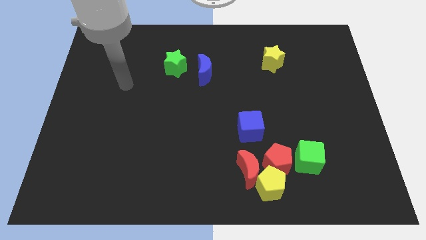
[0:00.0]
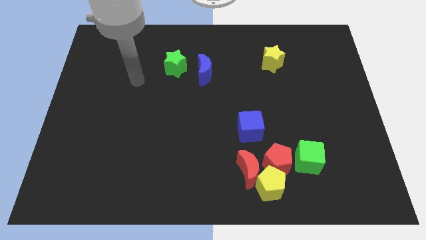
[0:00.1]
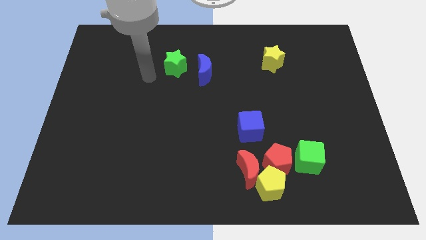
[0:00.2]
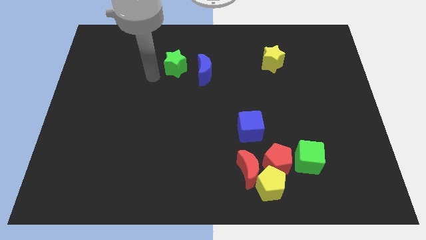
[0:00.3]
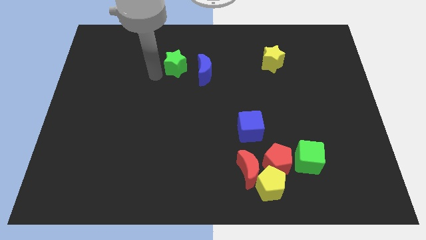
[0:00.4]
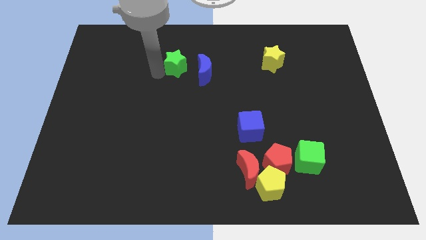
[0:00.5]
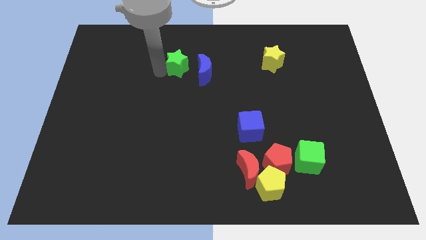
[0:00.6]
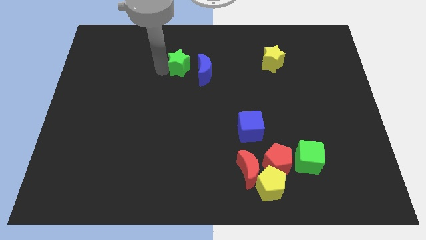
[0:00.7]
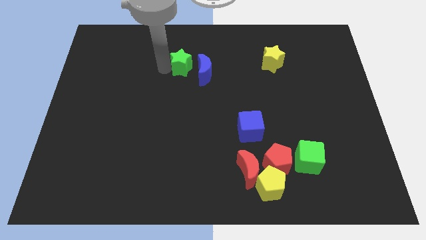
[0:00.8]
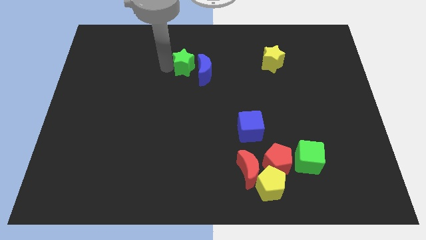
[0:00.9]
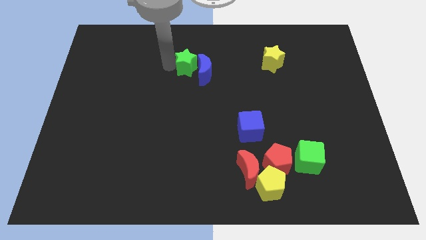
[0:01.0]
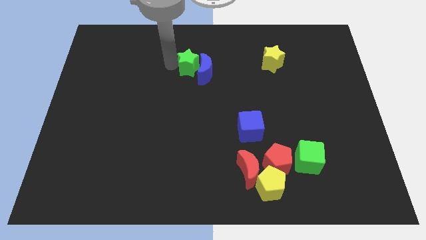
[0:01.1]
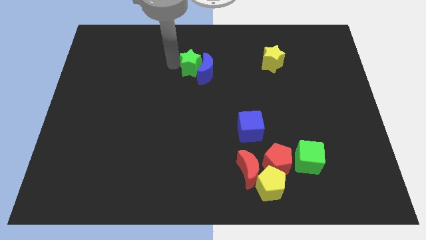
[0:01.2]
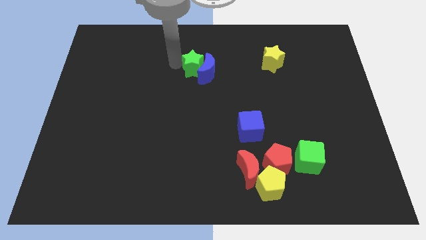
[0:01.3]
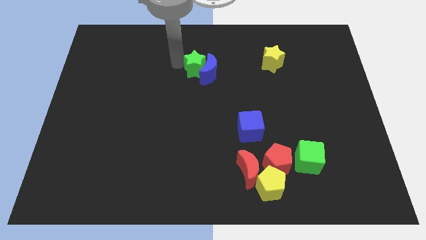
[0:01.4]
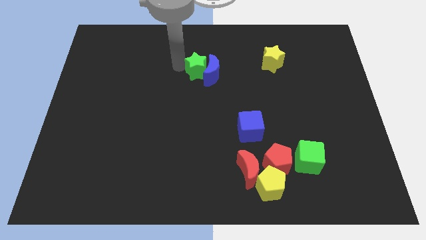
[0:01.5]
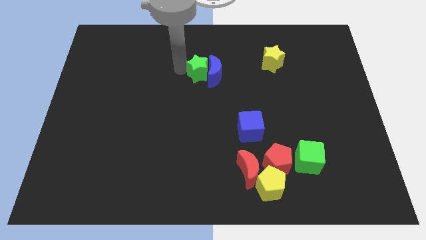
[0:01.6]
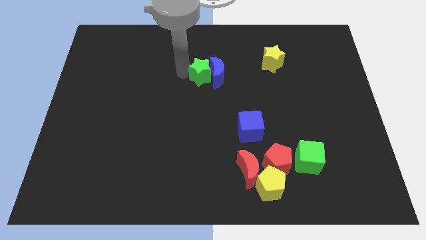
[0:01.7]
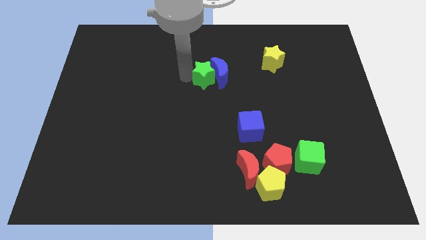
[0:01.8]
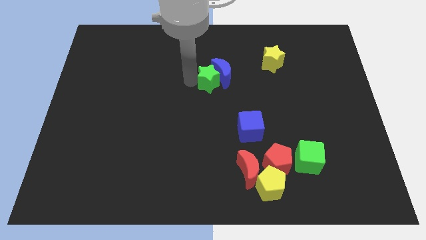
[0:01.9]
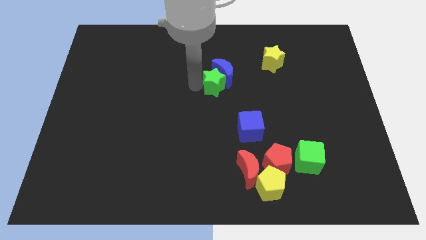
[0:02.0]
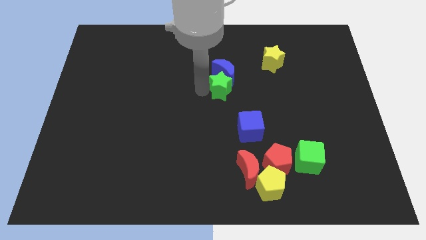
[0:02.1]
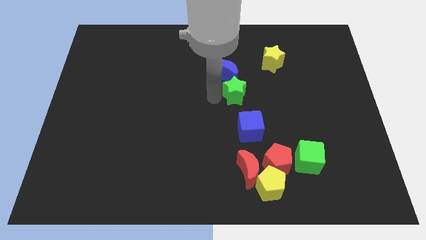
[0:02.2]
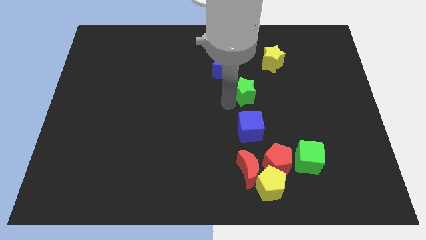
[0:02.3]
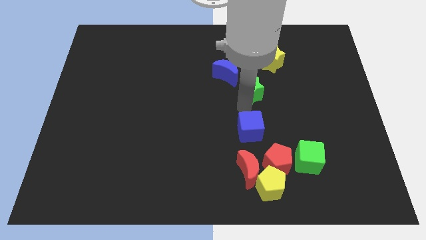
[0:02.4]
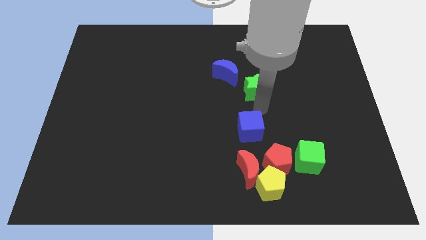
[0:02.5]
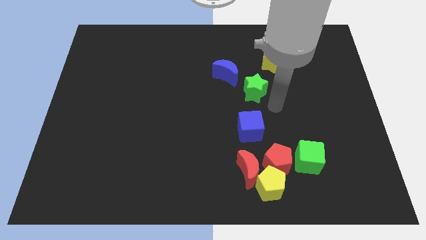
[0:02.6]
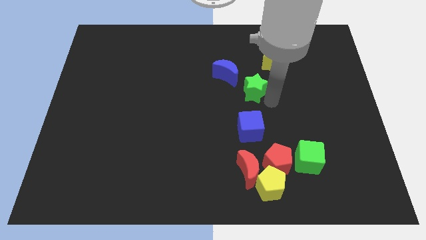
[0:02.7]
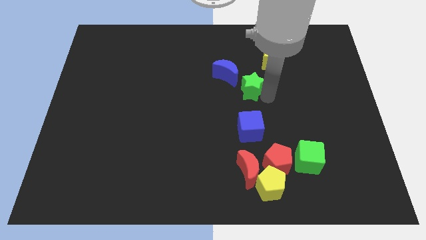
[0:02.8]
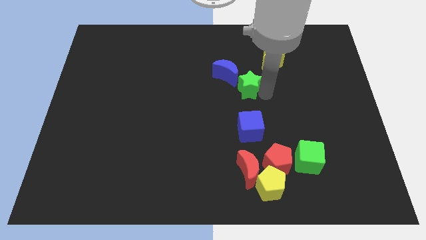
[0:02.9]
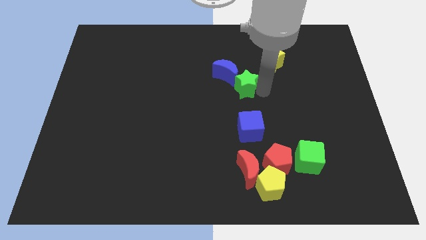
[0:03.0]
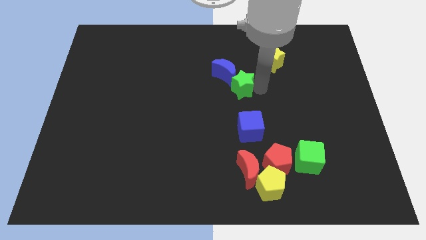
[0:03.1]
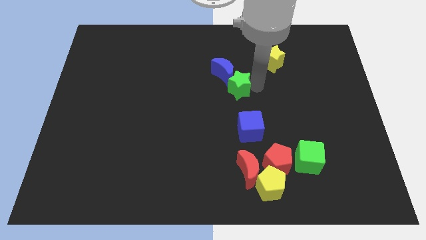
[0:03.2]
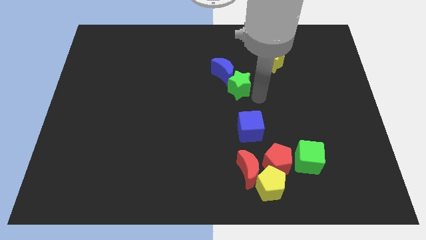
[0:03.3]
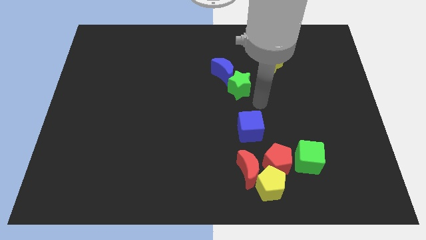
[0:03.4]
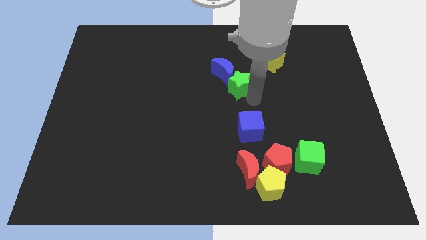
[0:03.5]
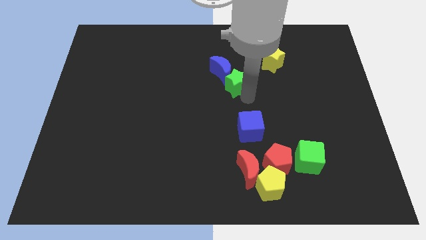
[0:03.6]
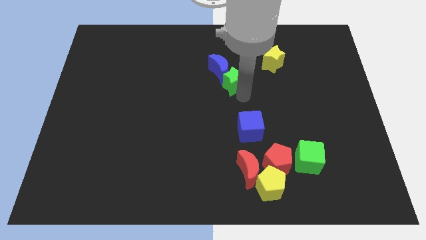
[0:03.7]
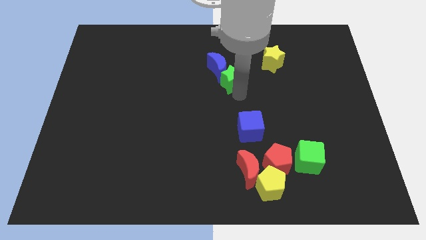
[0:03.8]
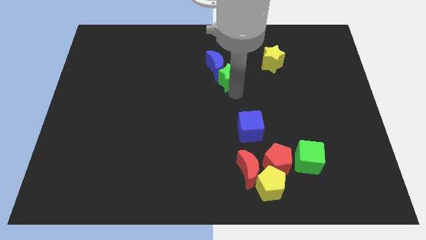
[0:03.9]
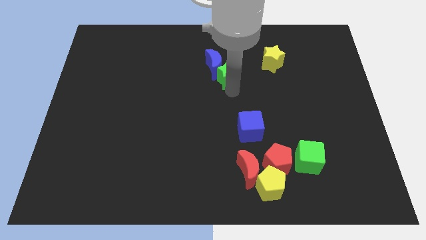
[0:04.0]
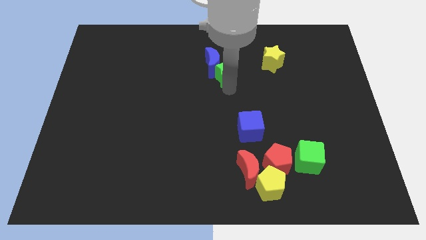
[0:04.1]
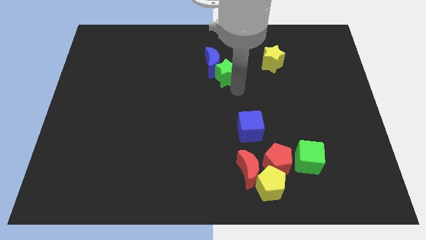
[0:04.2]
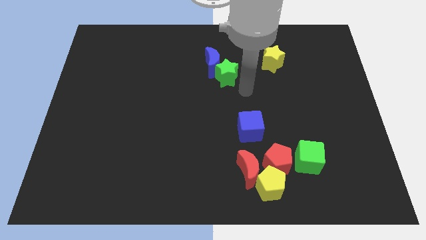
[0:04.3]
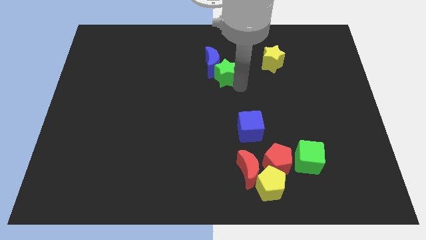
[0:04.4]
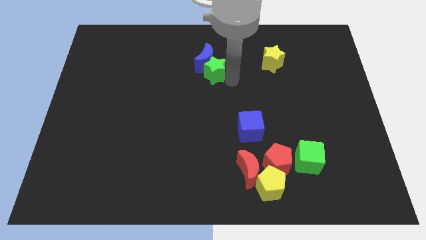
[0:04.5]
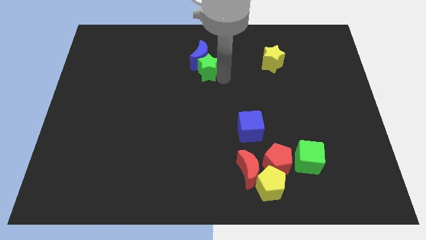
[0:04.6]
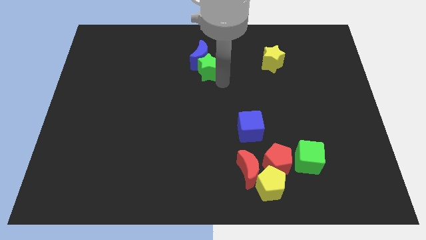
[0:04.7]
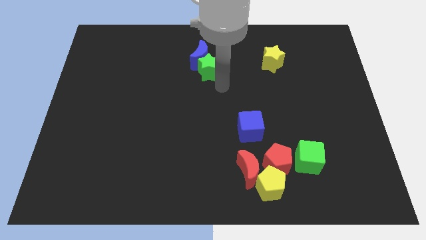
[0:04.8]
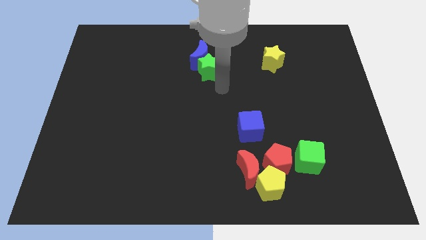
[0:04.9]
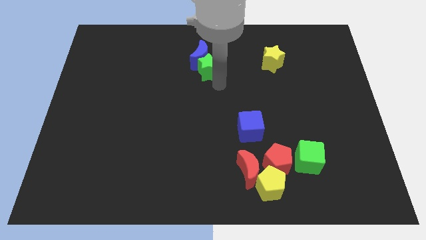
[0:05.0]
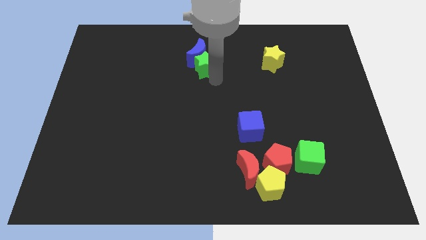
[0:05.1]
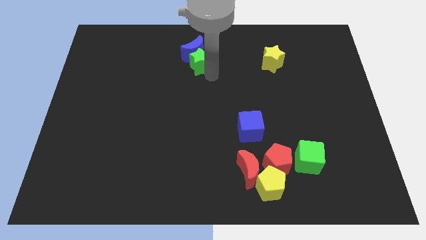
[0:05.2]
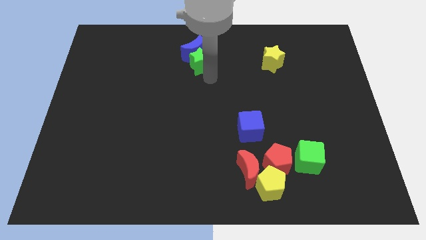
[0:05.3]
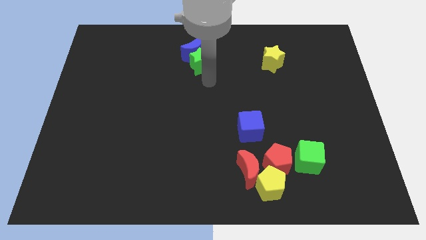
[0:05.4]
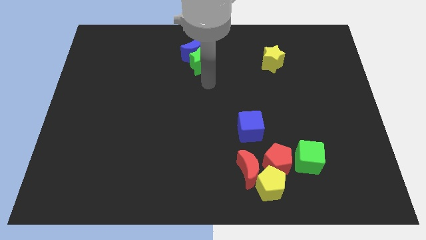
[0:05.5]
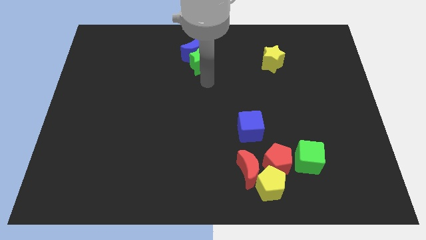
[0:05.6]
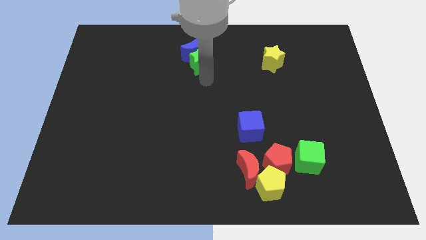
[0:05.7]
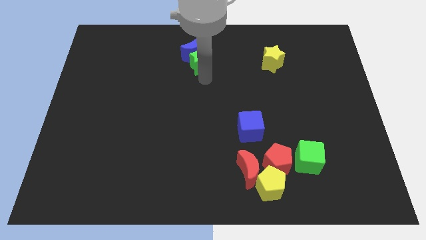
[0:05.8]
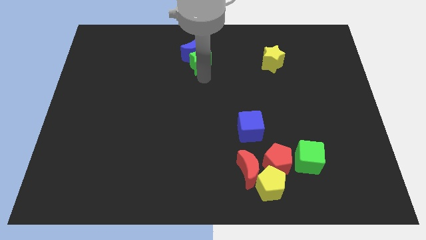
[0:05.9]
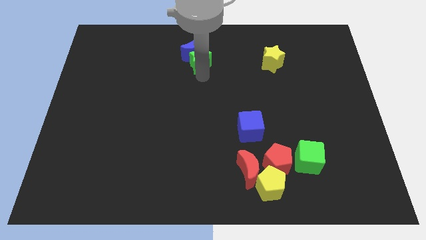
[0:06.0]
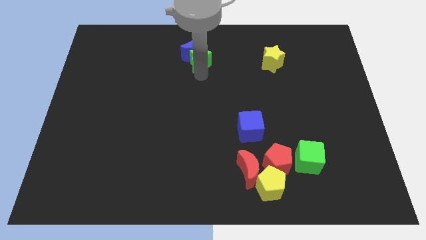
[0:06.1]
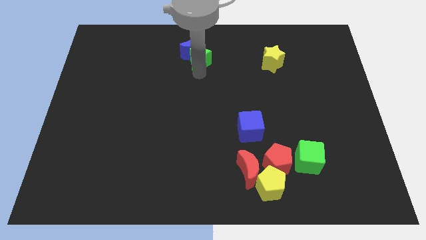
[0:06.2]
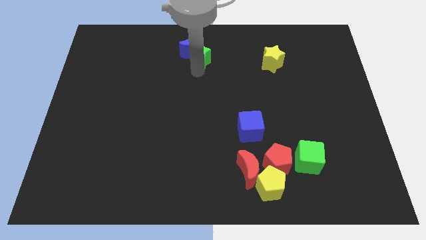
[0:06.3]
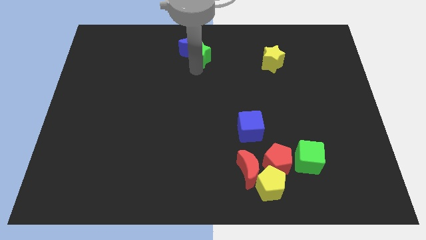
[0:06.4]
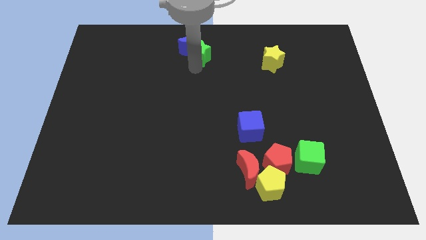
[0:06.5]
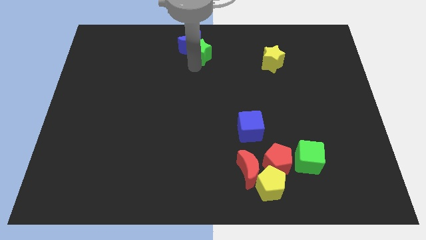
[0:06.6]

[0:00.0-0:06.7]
move the green star to the top

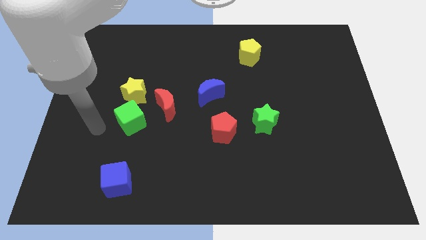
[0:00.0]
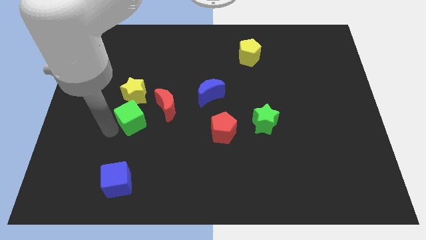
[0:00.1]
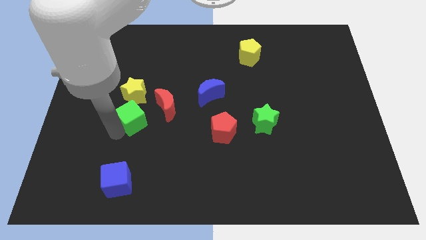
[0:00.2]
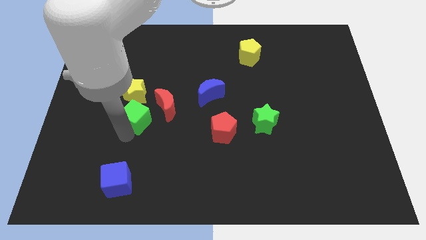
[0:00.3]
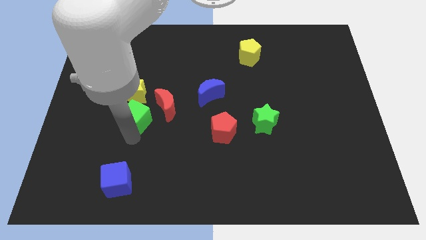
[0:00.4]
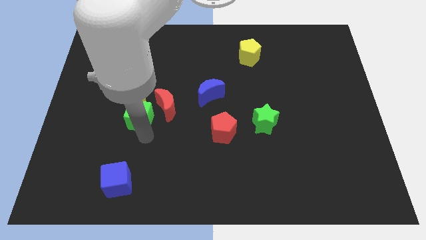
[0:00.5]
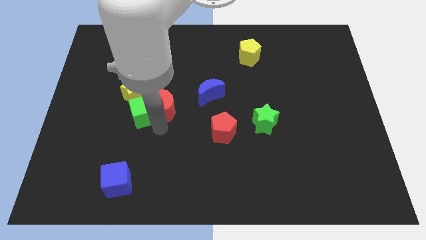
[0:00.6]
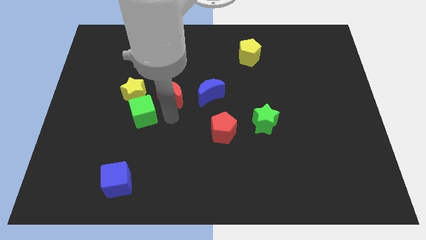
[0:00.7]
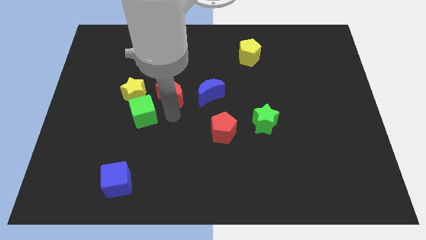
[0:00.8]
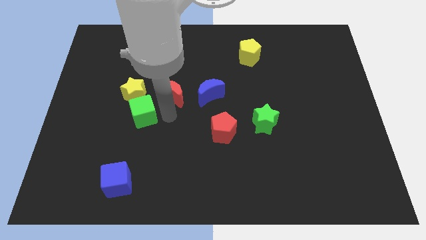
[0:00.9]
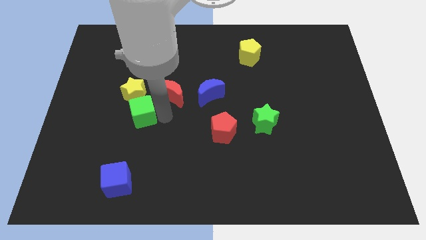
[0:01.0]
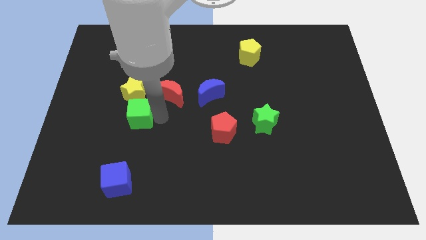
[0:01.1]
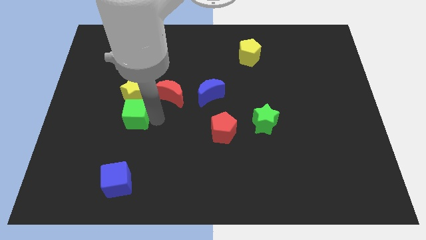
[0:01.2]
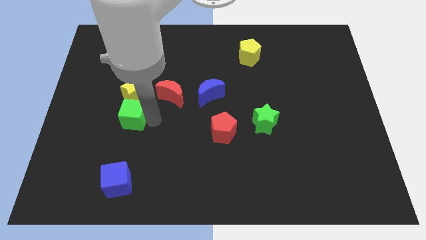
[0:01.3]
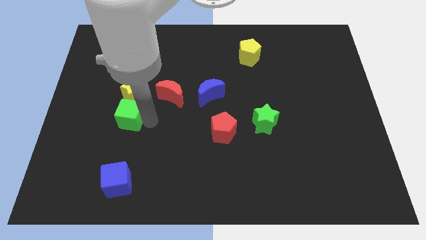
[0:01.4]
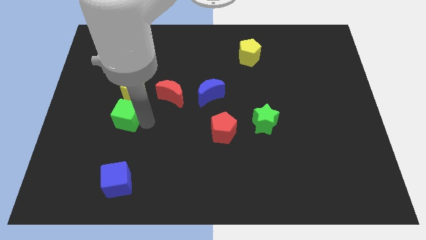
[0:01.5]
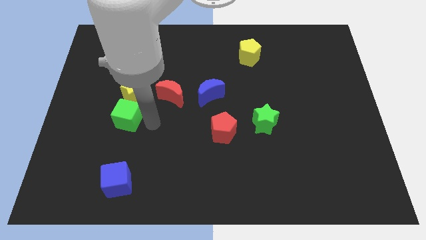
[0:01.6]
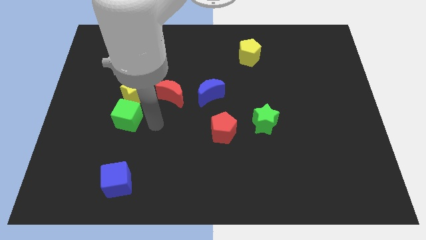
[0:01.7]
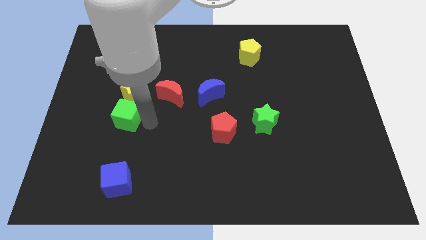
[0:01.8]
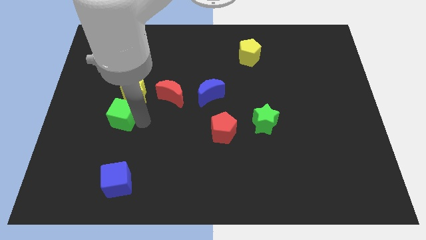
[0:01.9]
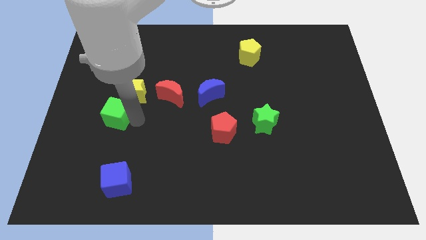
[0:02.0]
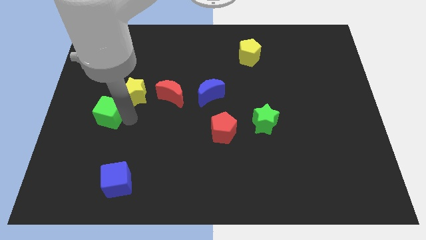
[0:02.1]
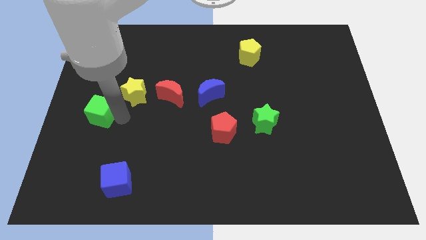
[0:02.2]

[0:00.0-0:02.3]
move the green cube to the left side of the board
